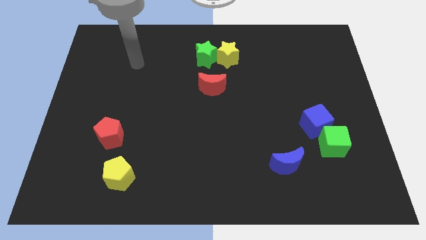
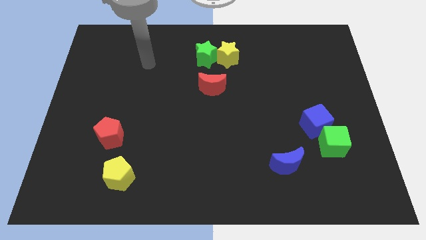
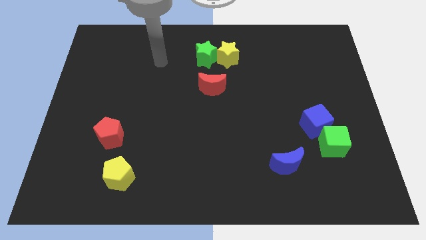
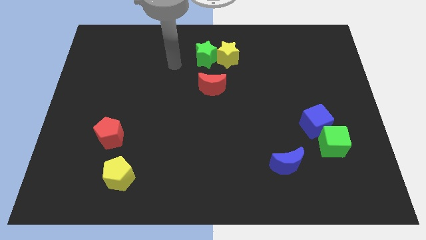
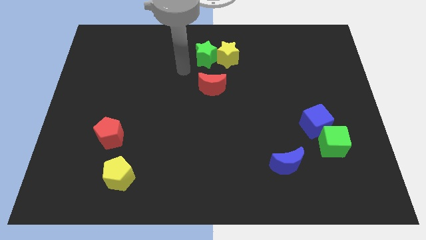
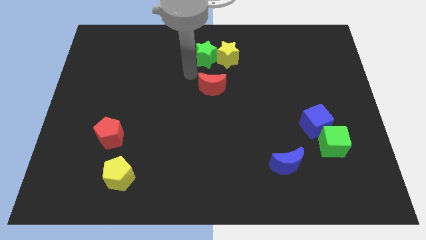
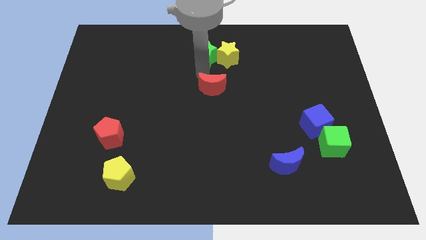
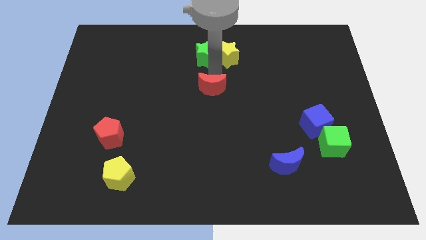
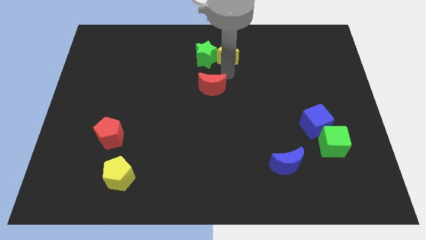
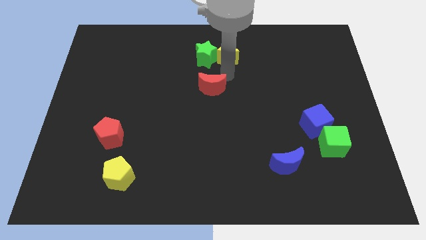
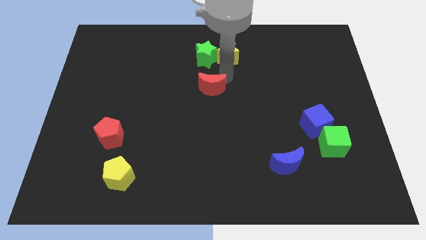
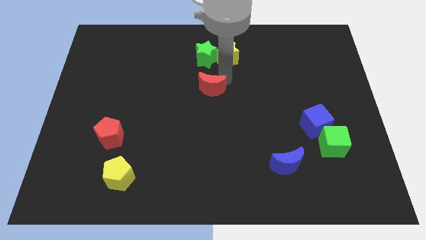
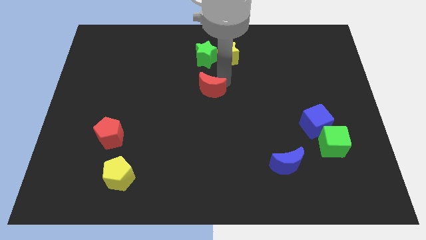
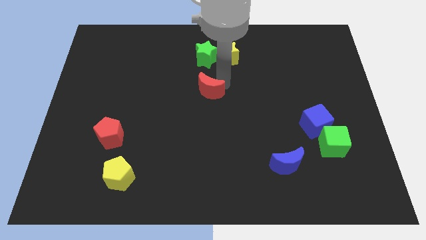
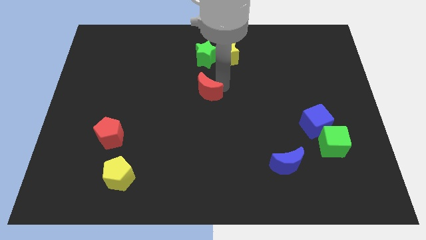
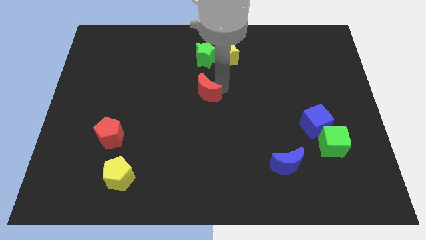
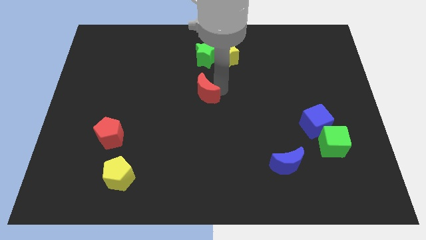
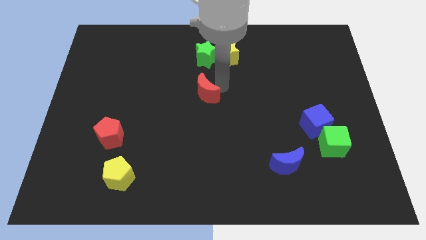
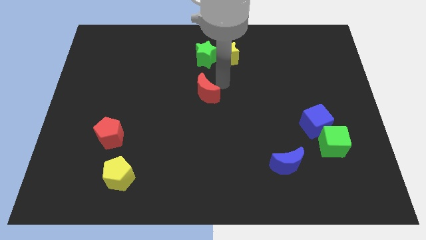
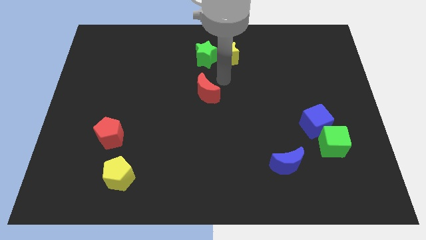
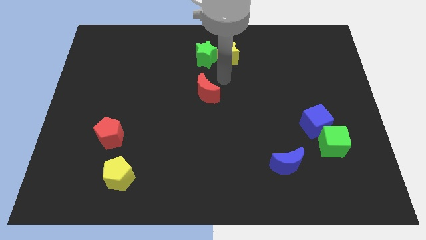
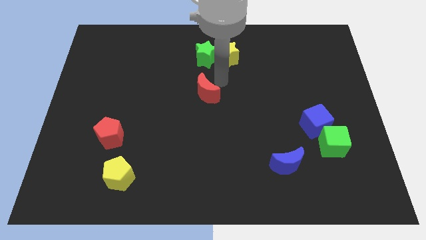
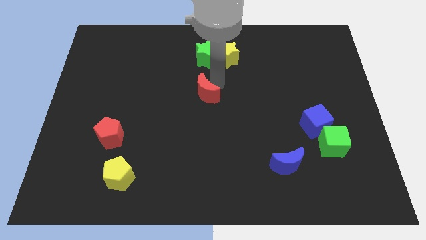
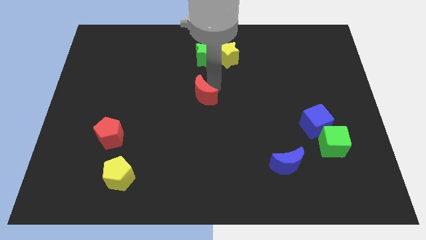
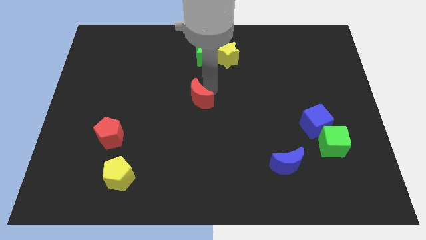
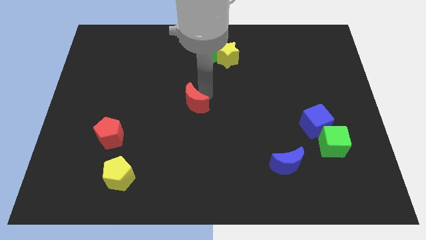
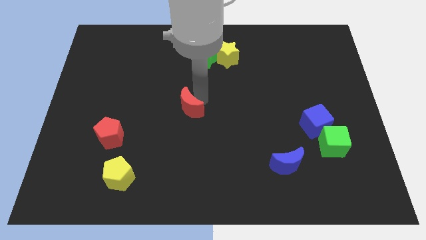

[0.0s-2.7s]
slide the red moon diagonally downwards and left a little bit

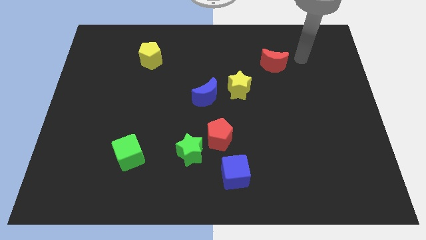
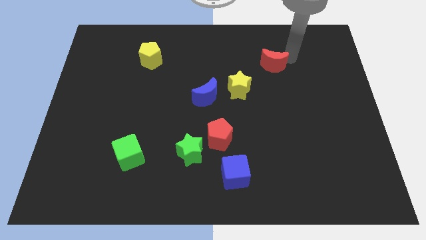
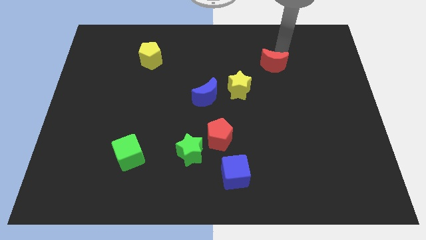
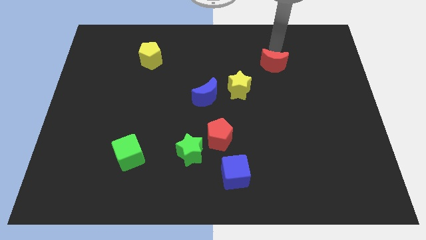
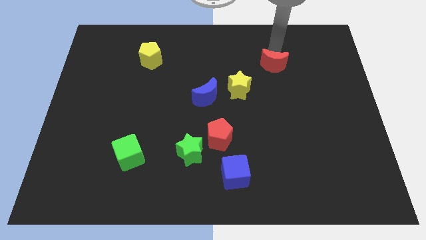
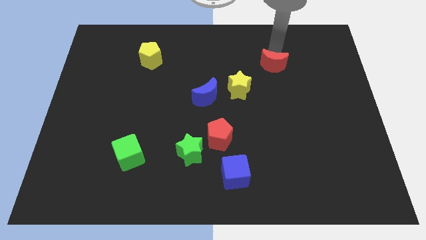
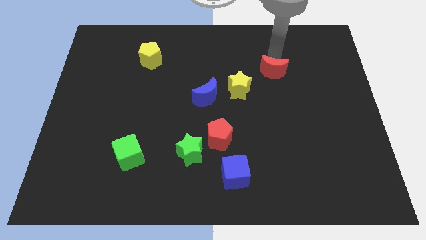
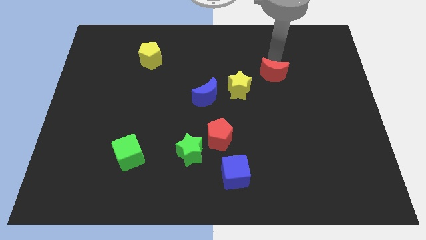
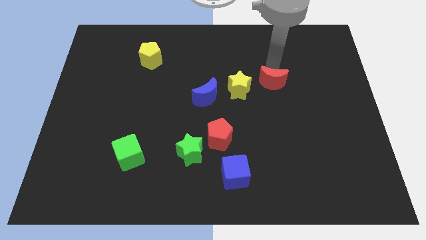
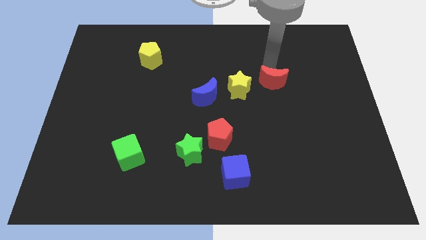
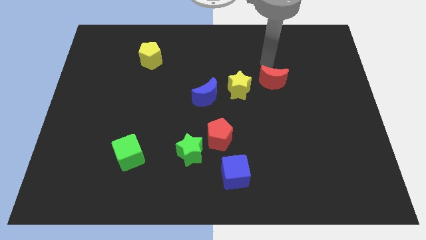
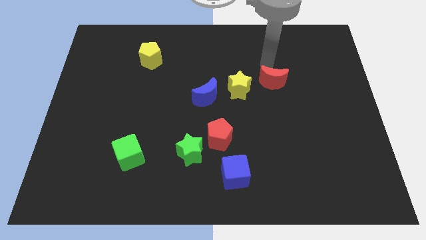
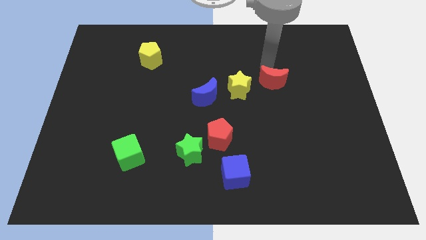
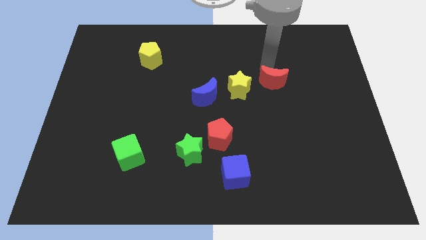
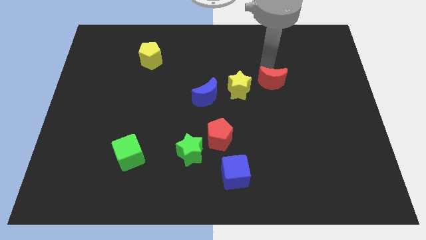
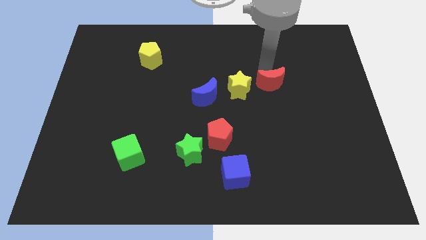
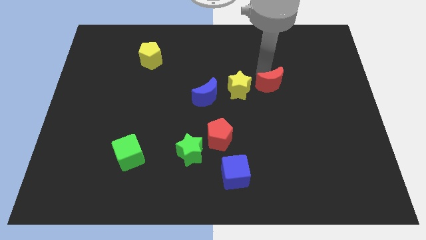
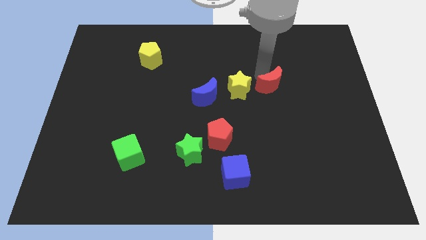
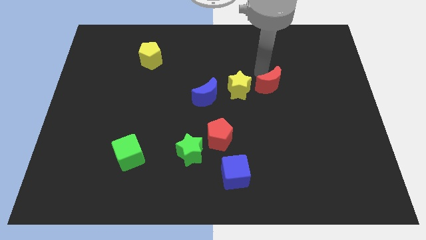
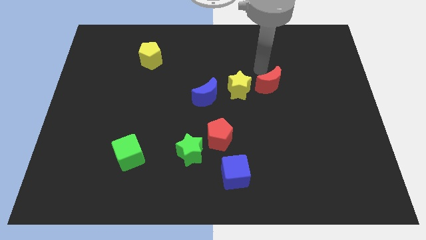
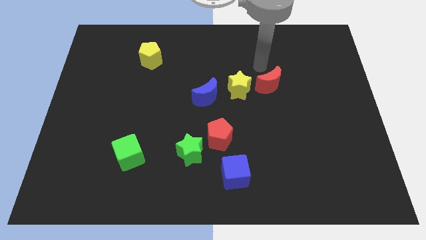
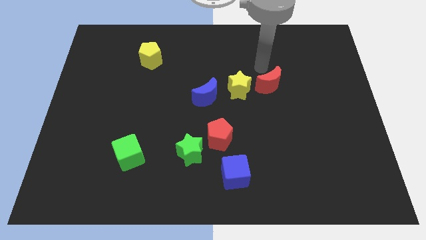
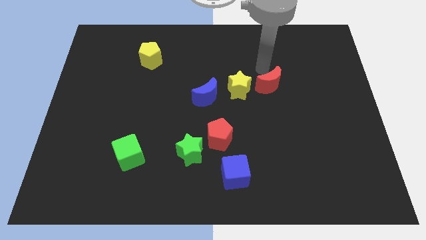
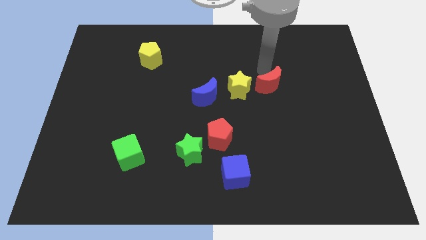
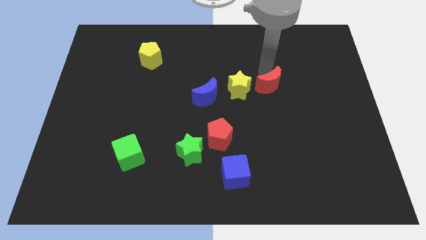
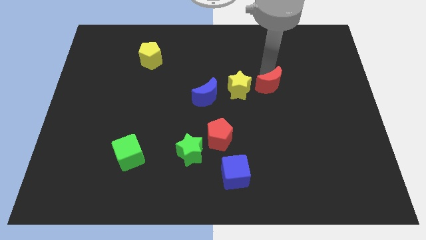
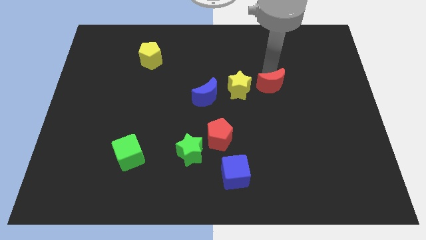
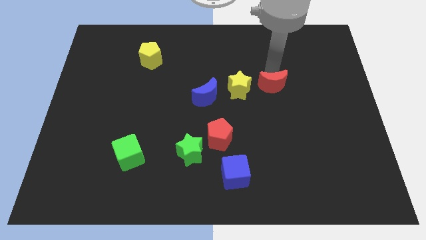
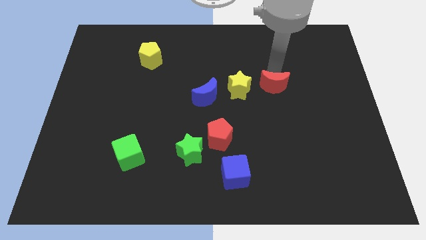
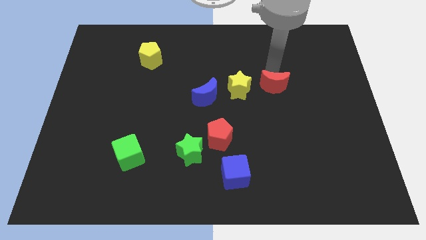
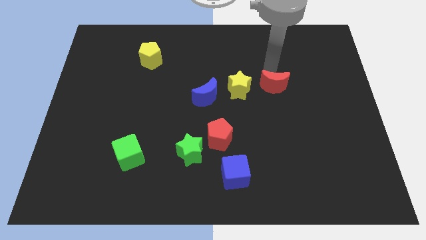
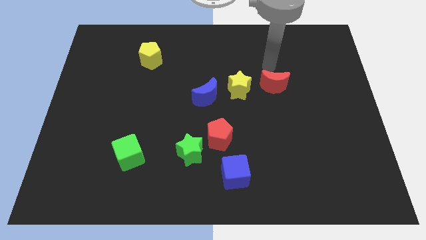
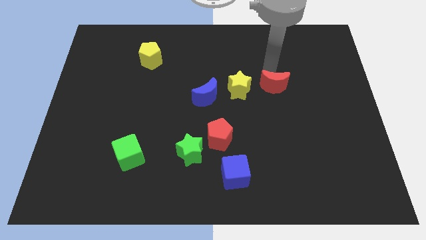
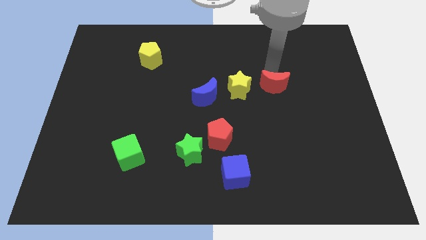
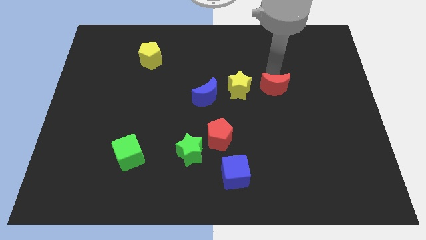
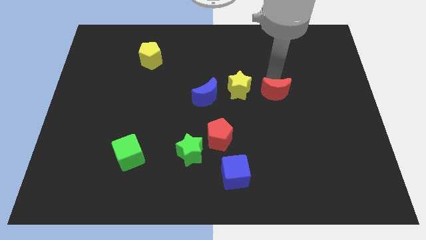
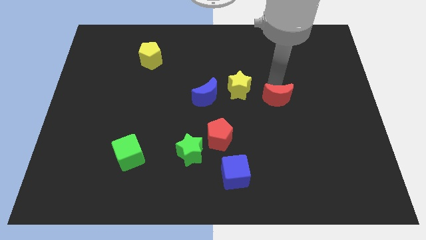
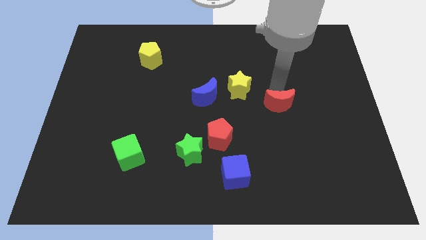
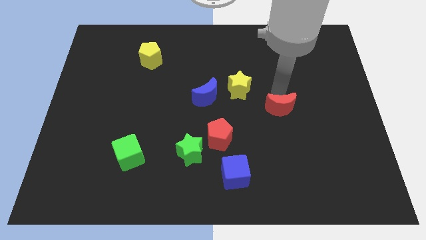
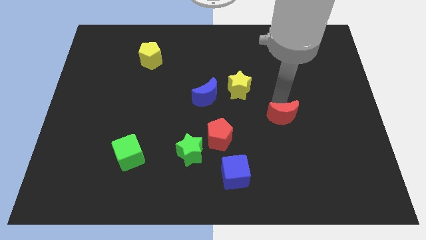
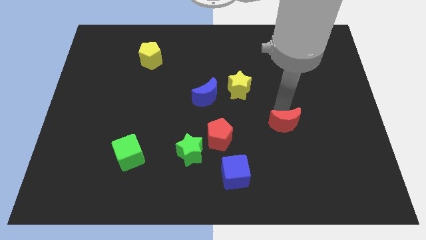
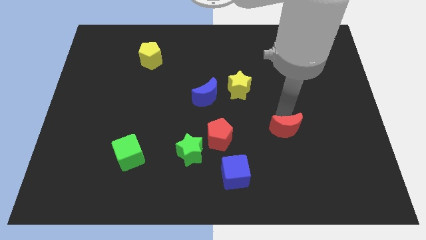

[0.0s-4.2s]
move the red moon down

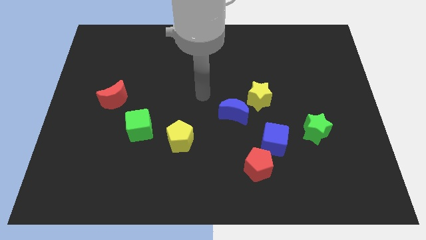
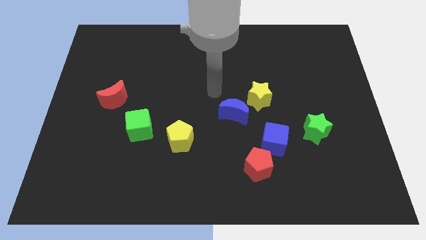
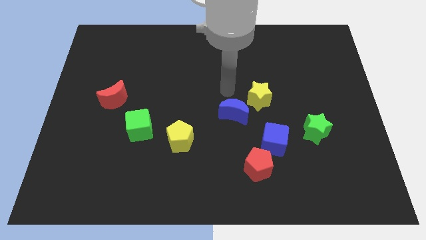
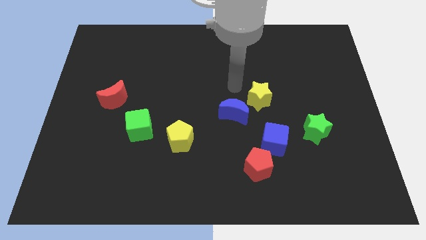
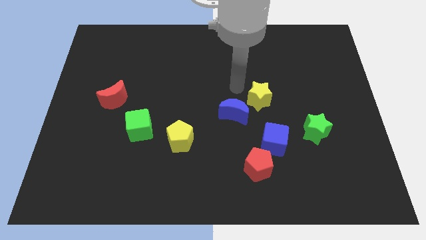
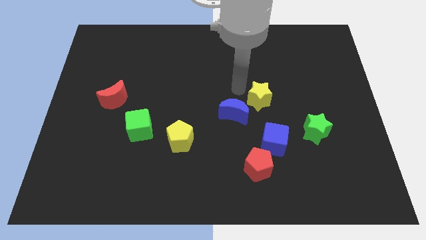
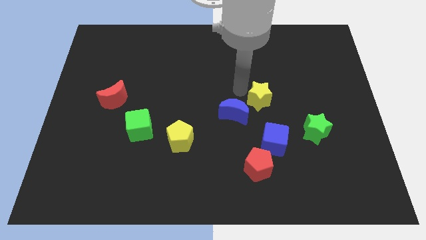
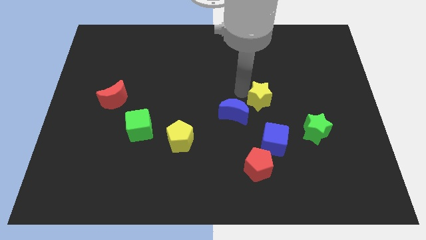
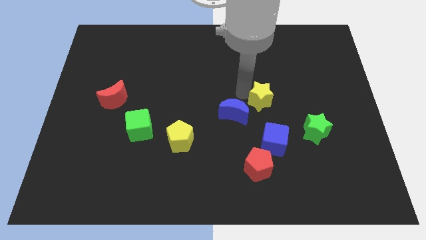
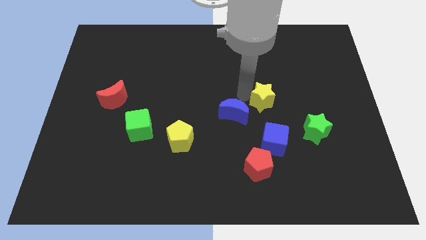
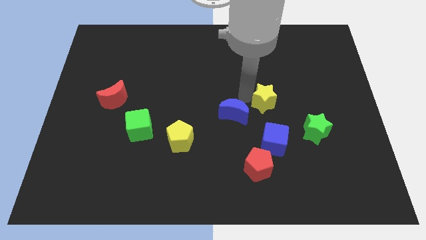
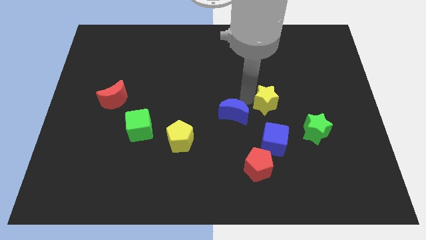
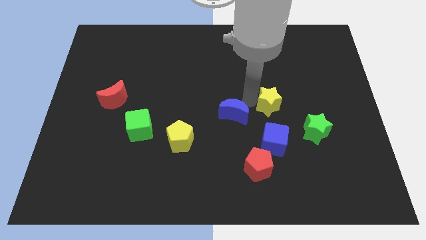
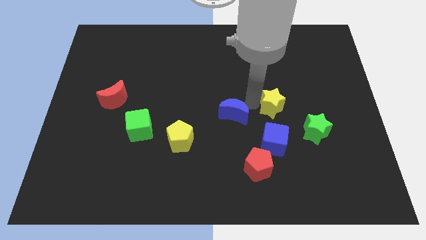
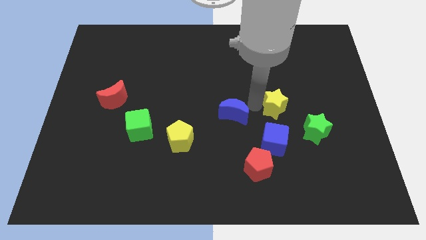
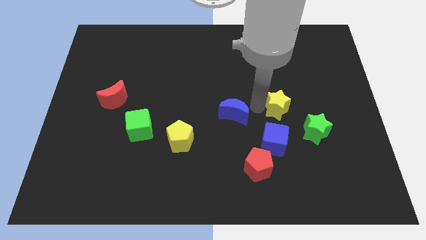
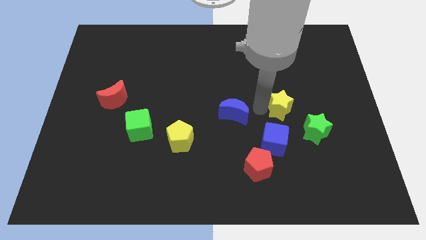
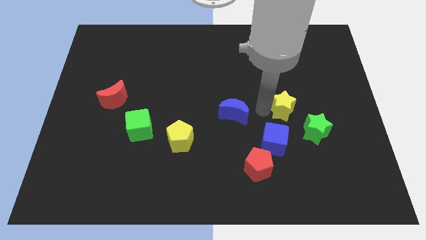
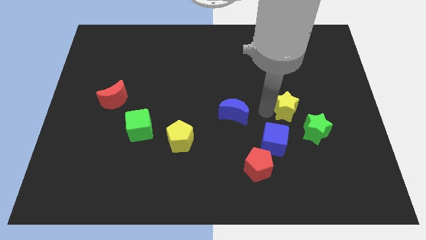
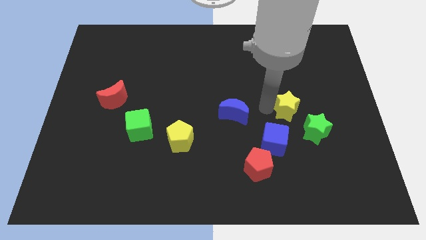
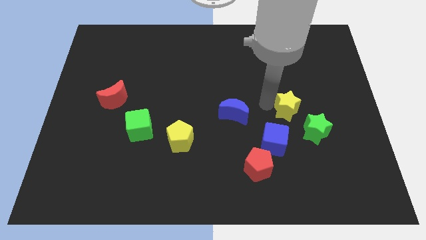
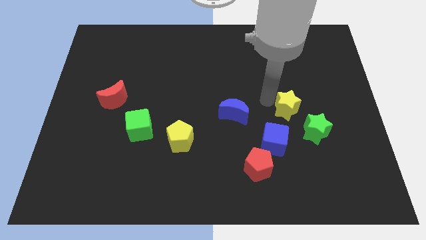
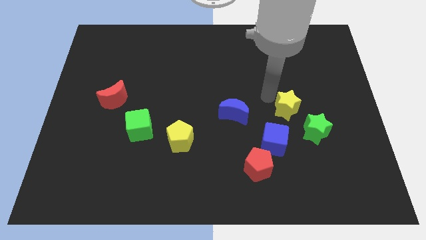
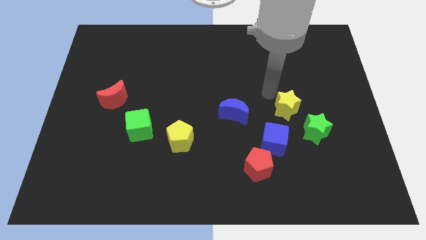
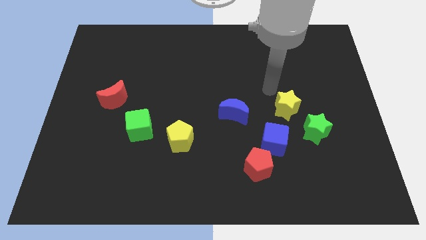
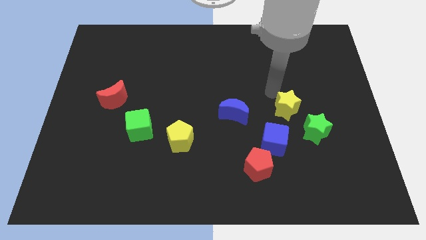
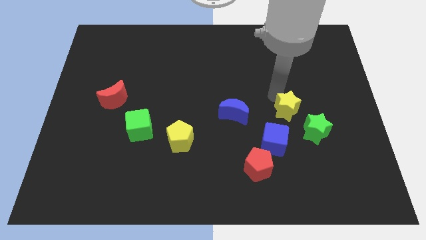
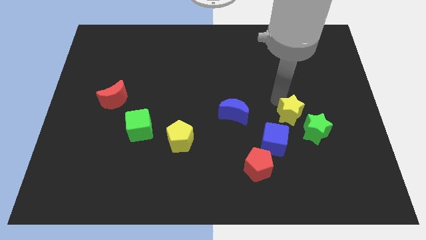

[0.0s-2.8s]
slightly push the yellow star downwards and right
